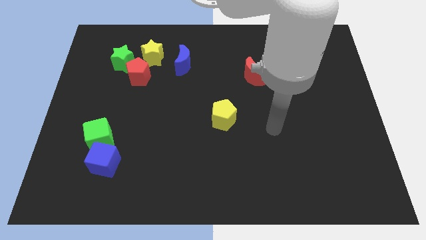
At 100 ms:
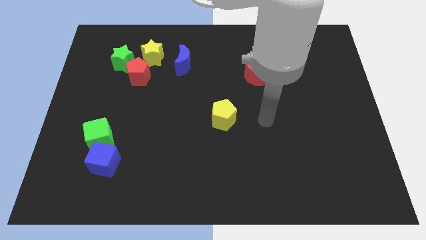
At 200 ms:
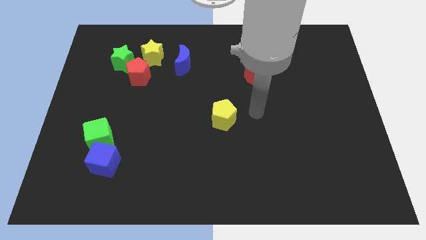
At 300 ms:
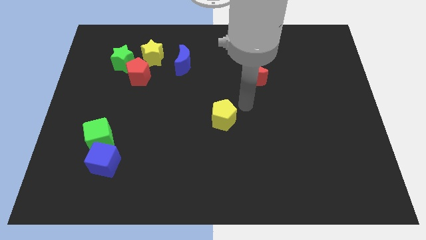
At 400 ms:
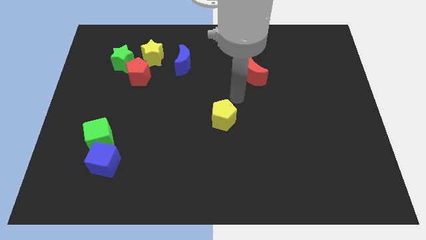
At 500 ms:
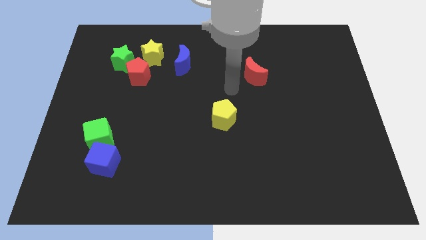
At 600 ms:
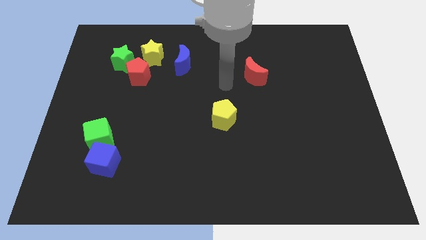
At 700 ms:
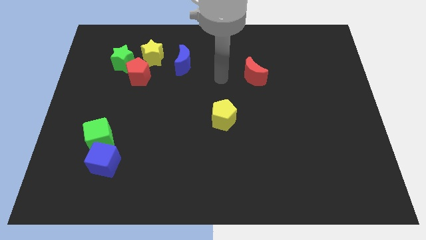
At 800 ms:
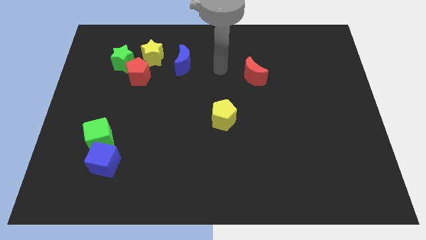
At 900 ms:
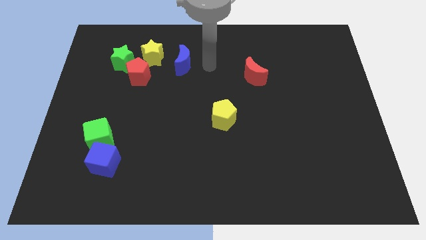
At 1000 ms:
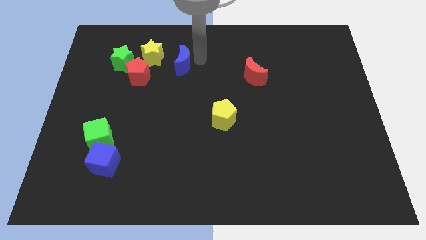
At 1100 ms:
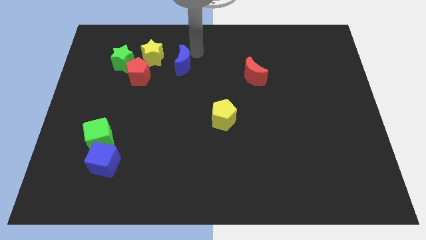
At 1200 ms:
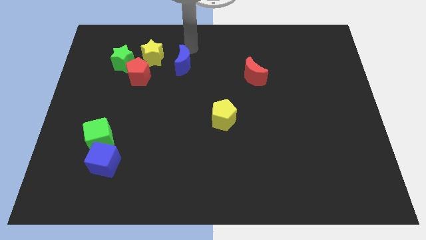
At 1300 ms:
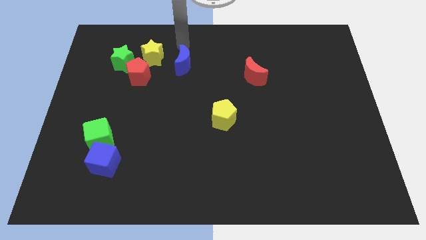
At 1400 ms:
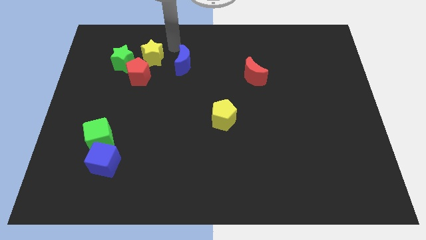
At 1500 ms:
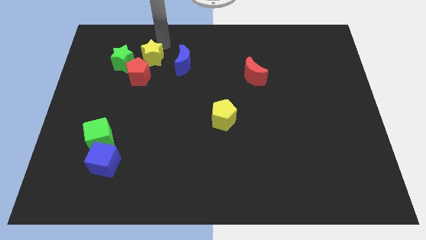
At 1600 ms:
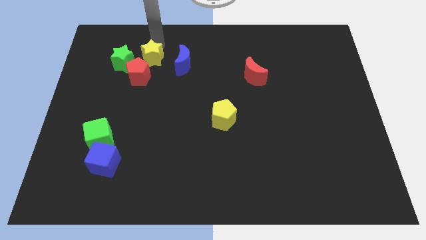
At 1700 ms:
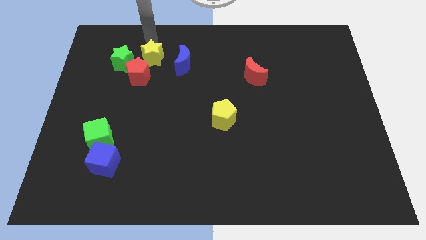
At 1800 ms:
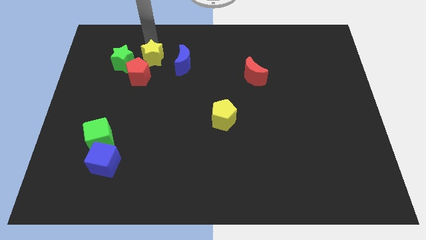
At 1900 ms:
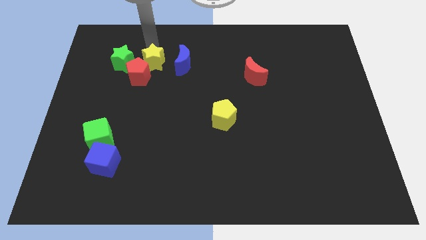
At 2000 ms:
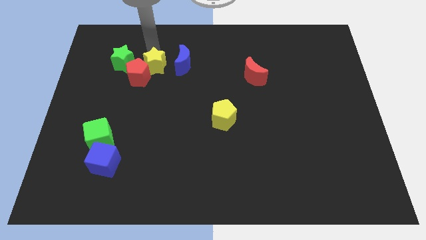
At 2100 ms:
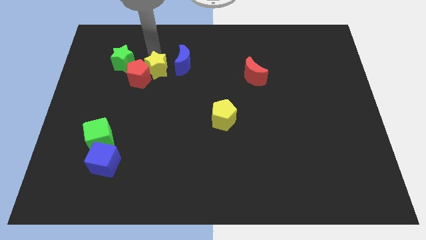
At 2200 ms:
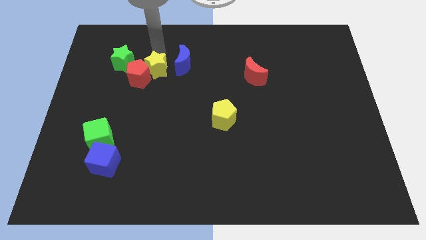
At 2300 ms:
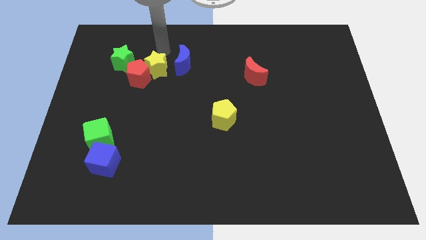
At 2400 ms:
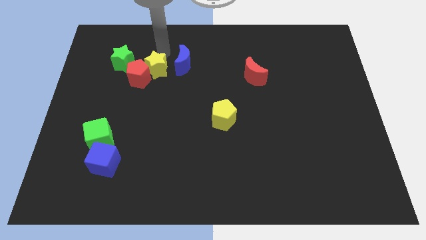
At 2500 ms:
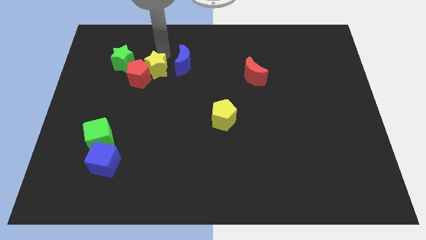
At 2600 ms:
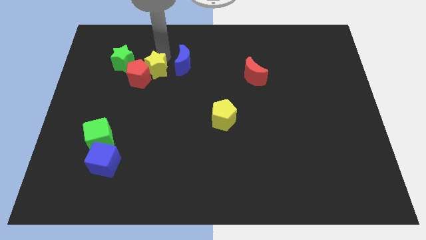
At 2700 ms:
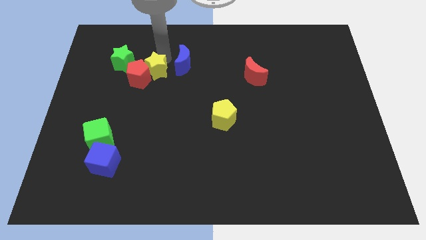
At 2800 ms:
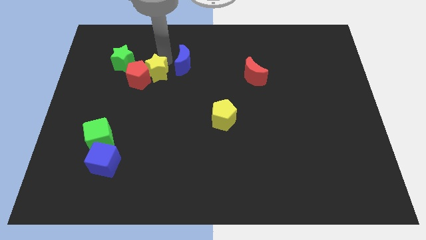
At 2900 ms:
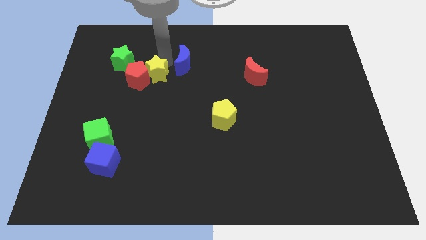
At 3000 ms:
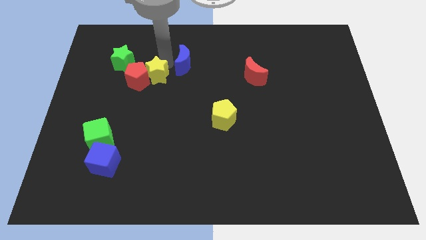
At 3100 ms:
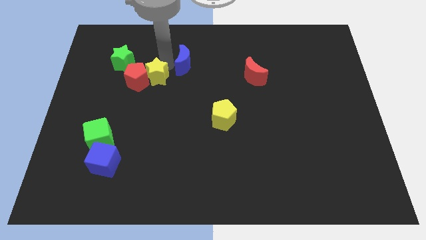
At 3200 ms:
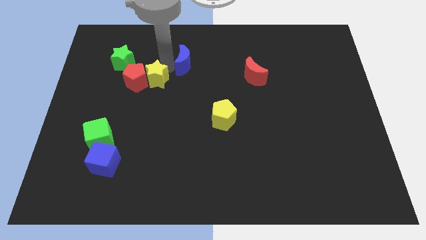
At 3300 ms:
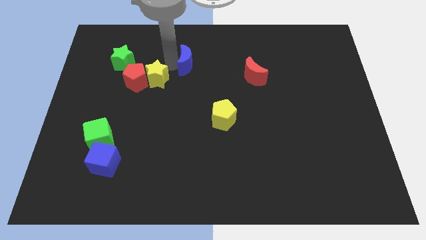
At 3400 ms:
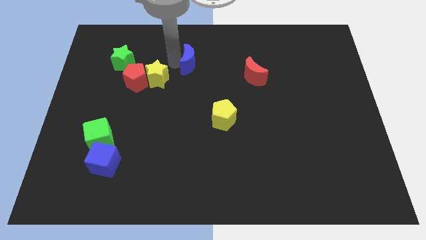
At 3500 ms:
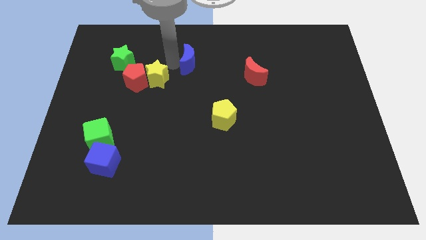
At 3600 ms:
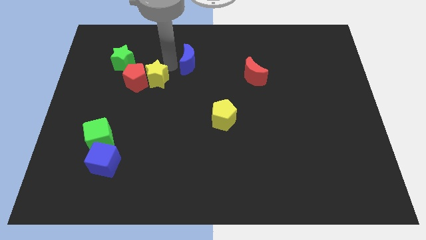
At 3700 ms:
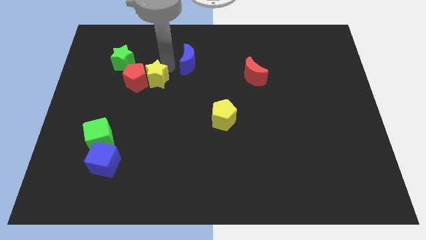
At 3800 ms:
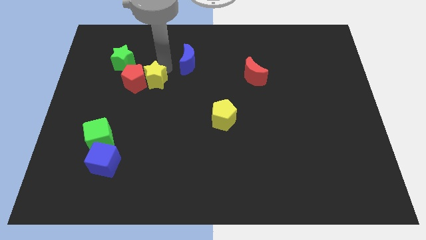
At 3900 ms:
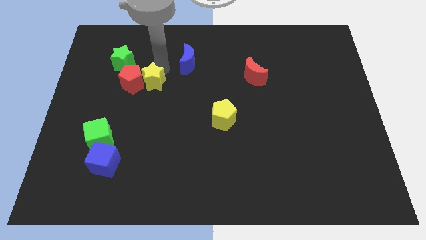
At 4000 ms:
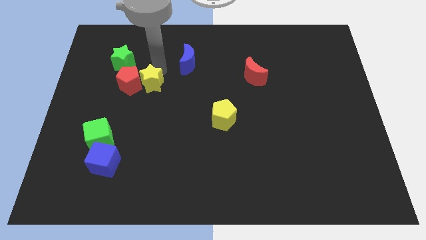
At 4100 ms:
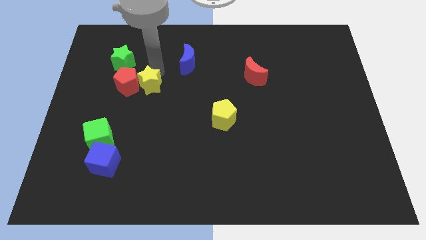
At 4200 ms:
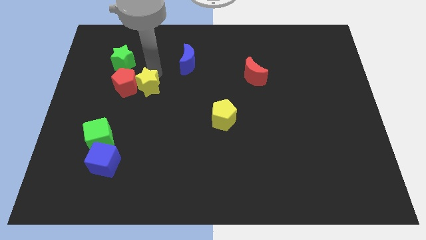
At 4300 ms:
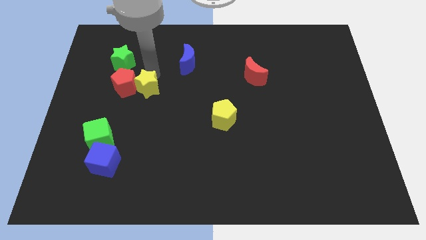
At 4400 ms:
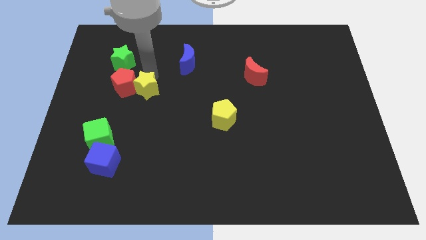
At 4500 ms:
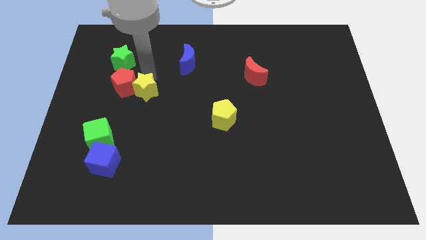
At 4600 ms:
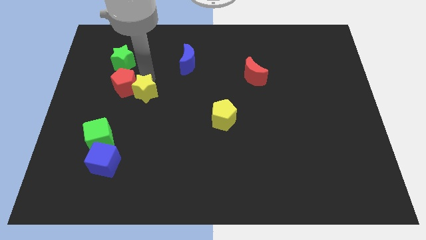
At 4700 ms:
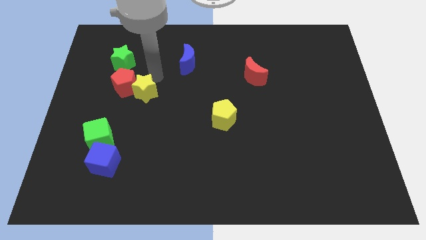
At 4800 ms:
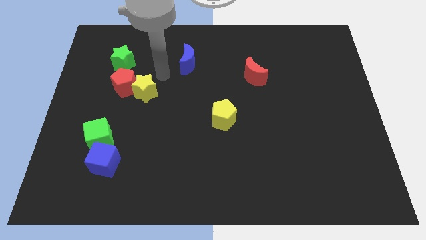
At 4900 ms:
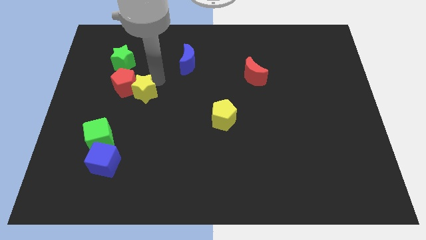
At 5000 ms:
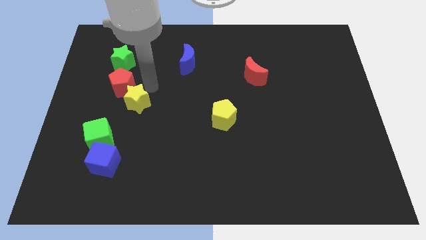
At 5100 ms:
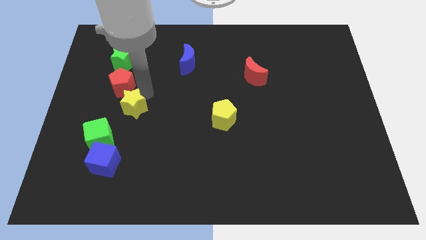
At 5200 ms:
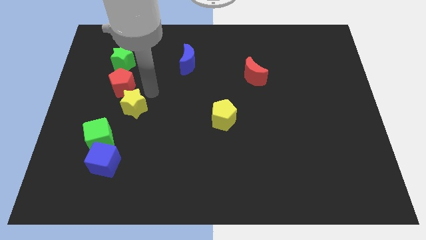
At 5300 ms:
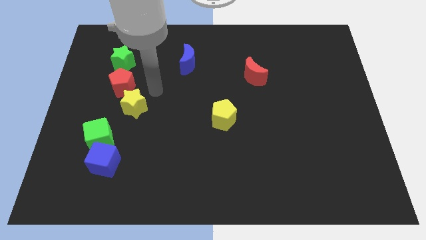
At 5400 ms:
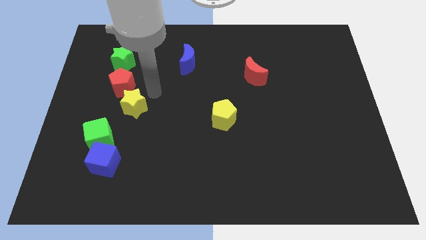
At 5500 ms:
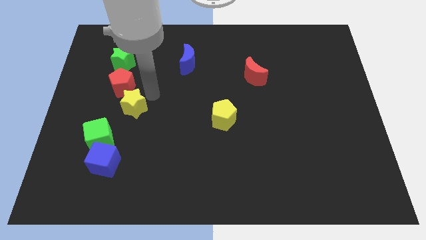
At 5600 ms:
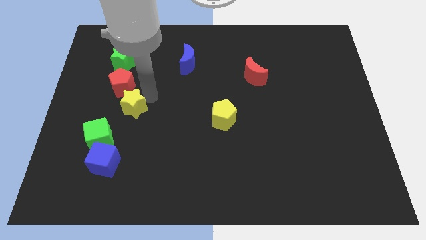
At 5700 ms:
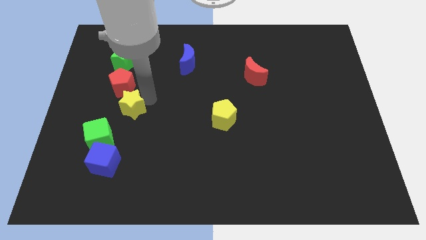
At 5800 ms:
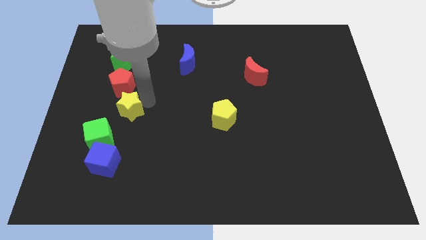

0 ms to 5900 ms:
slide the yellow star to the top of the blue cube

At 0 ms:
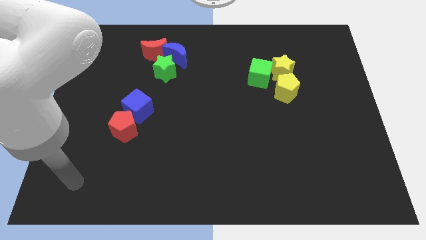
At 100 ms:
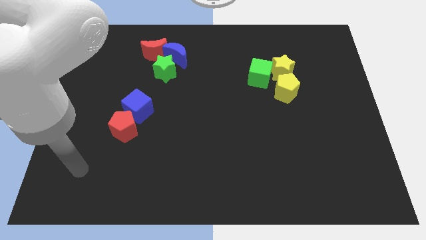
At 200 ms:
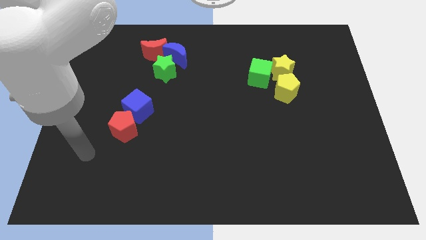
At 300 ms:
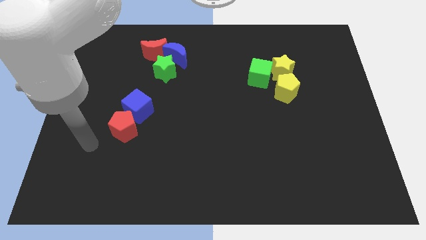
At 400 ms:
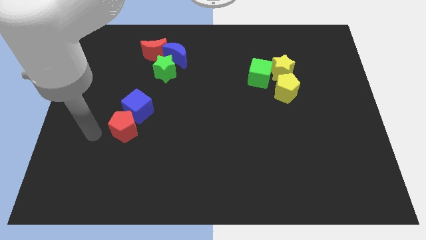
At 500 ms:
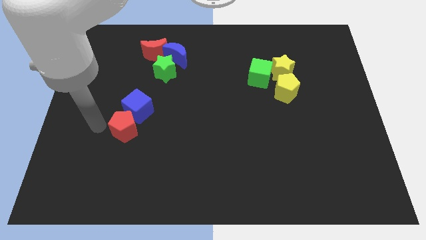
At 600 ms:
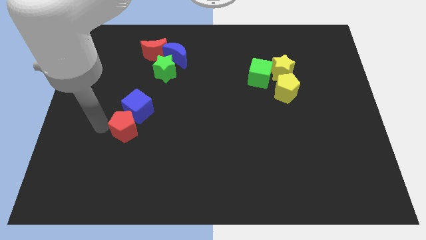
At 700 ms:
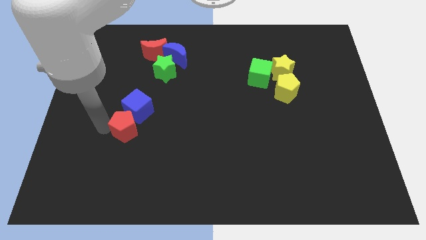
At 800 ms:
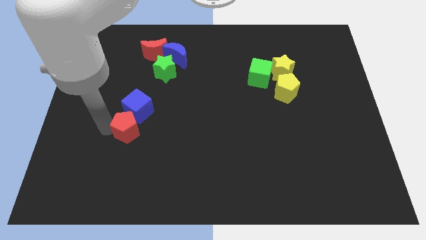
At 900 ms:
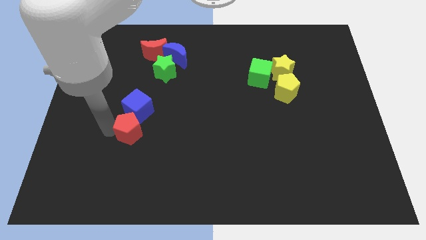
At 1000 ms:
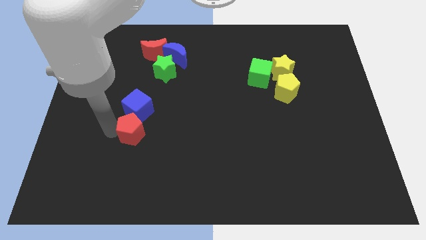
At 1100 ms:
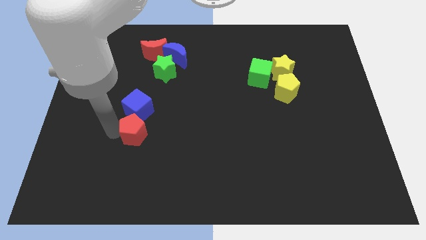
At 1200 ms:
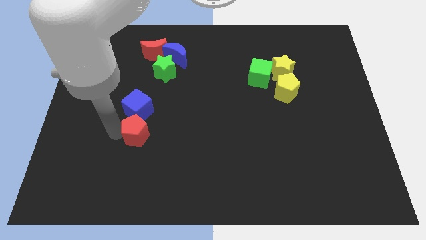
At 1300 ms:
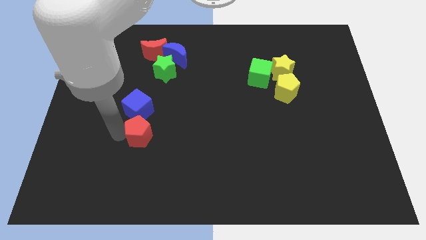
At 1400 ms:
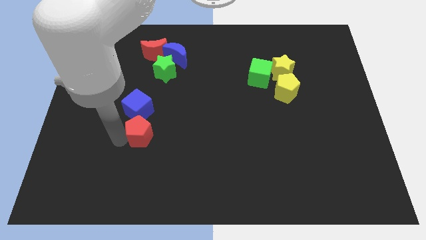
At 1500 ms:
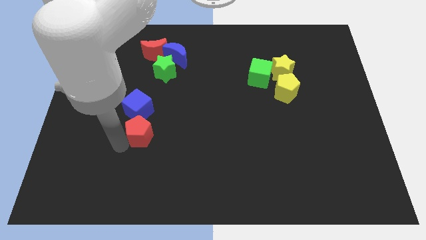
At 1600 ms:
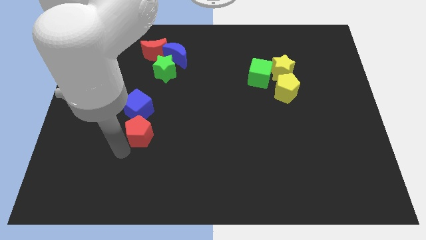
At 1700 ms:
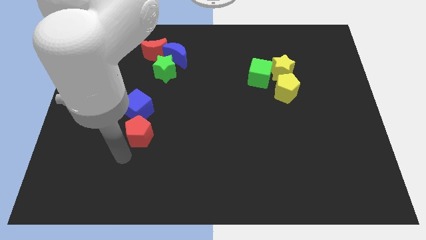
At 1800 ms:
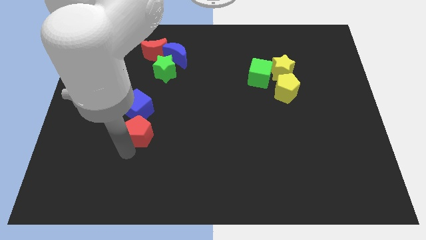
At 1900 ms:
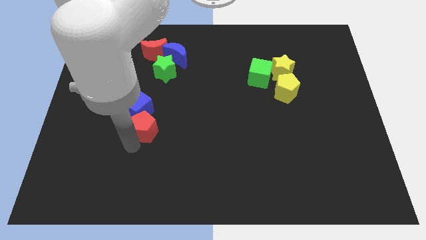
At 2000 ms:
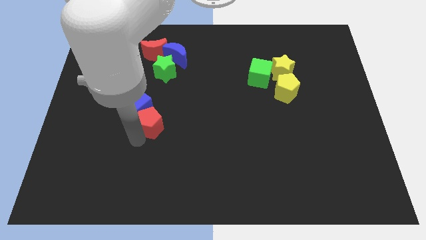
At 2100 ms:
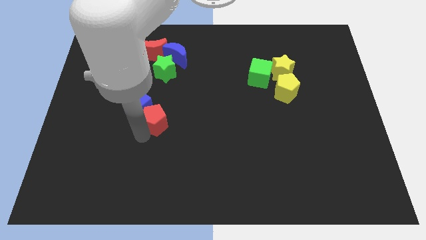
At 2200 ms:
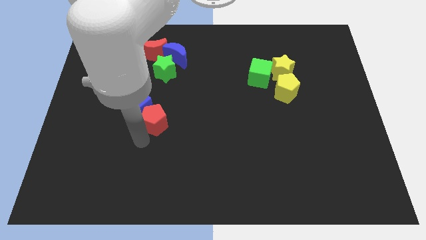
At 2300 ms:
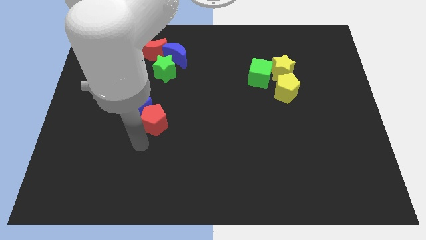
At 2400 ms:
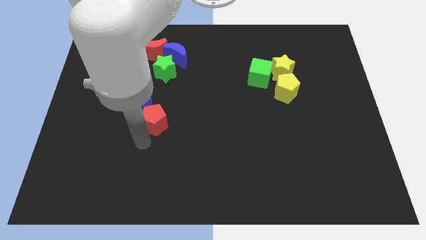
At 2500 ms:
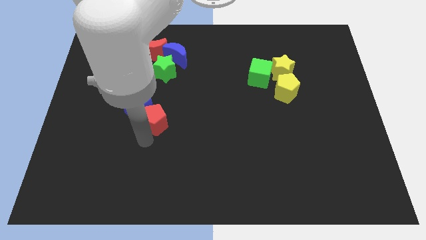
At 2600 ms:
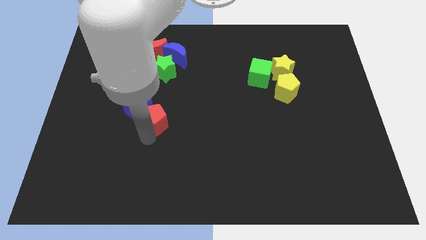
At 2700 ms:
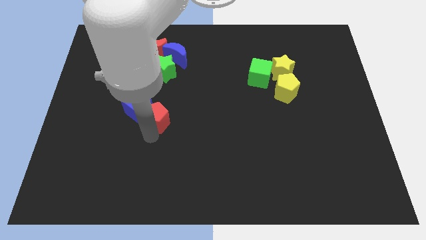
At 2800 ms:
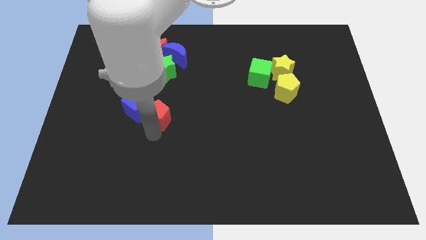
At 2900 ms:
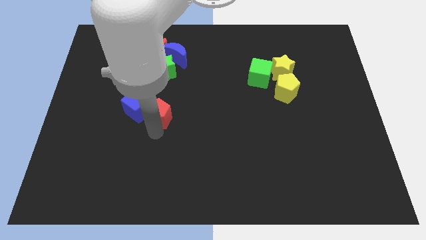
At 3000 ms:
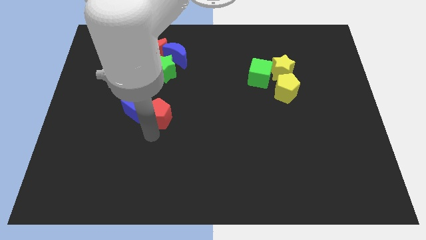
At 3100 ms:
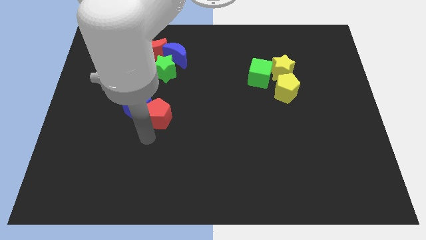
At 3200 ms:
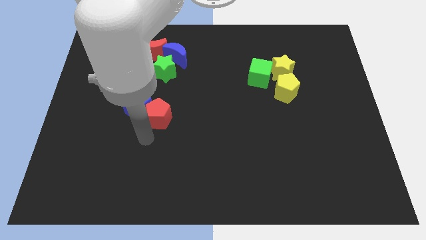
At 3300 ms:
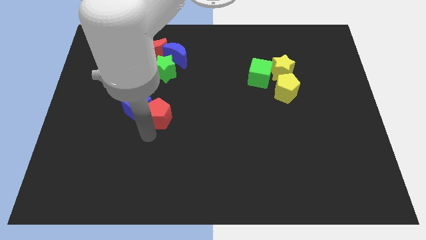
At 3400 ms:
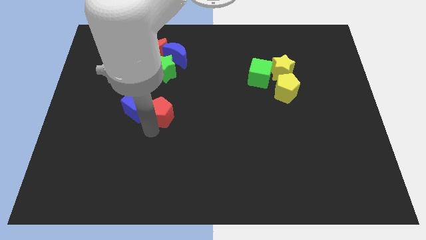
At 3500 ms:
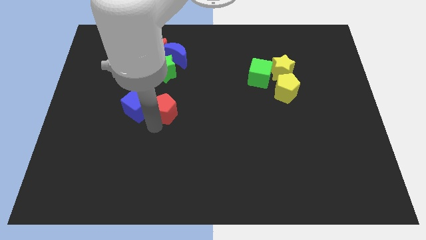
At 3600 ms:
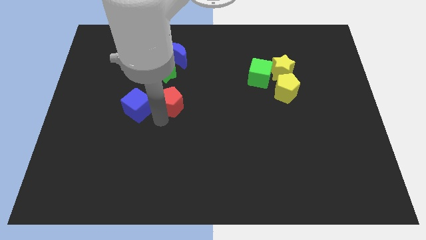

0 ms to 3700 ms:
push the red pentagon to the bottom of the blue moon
